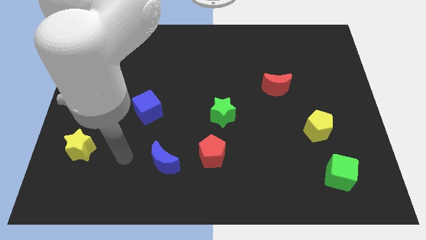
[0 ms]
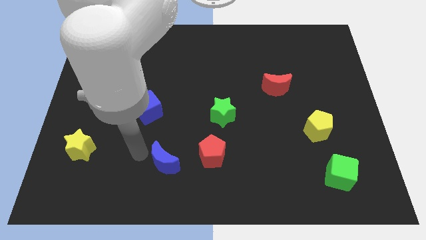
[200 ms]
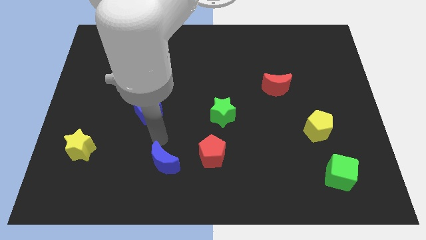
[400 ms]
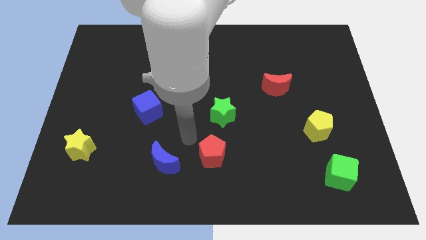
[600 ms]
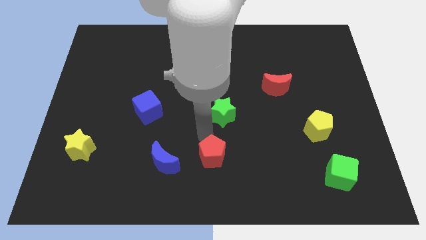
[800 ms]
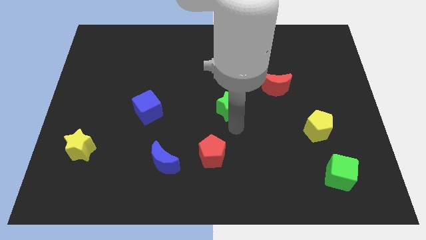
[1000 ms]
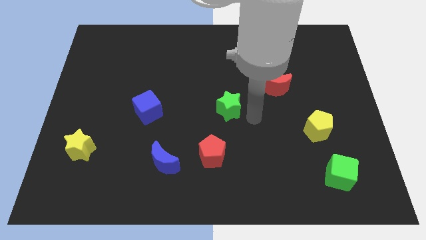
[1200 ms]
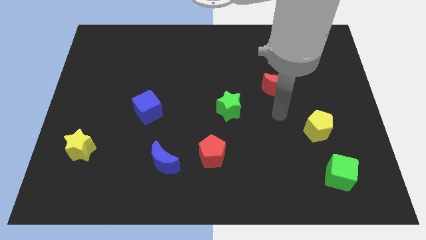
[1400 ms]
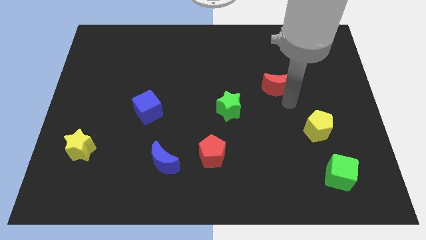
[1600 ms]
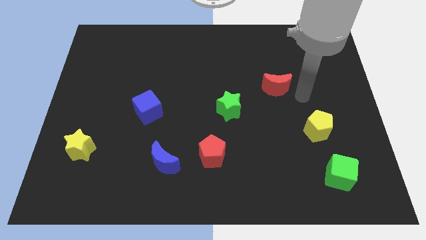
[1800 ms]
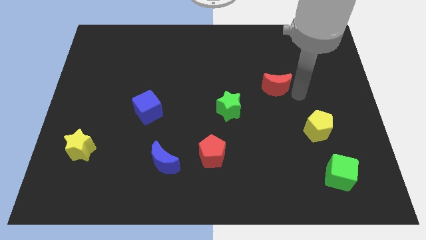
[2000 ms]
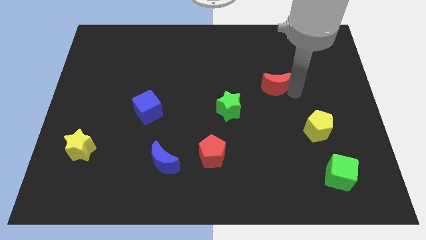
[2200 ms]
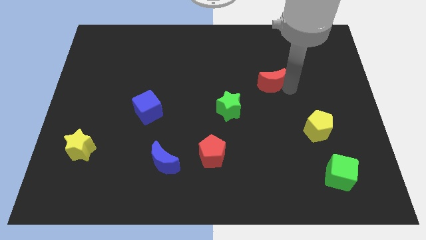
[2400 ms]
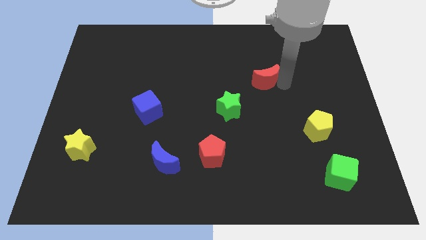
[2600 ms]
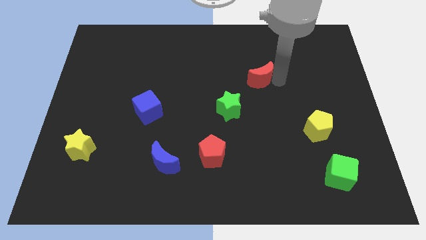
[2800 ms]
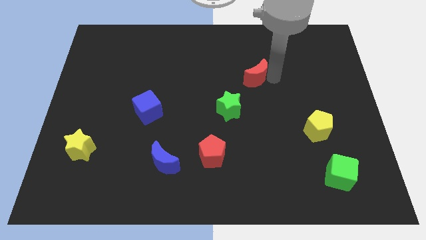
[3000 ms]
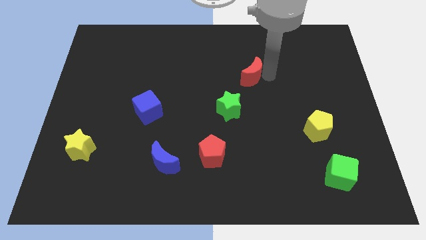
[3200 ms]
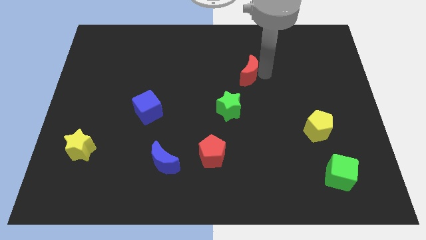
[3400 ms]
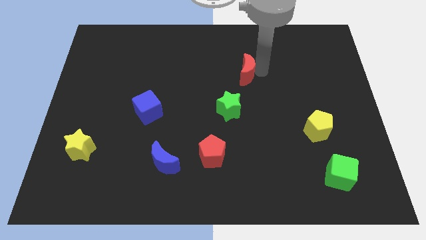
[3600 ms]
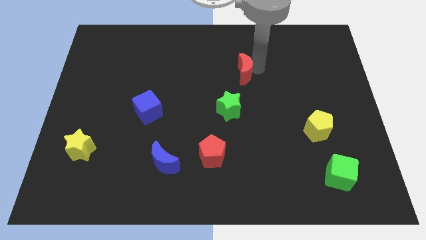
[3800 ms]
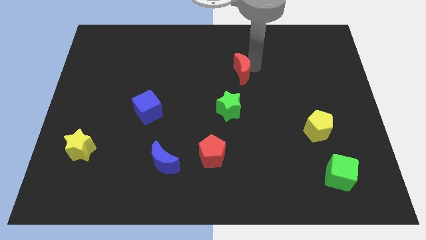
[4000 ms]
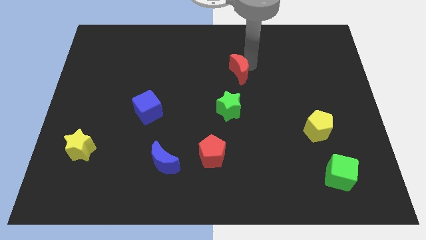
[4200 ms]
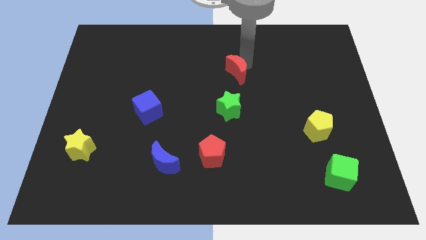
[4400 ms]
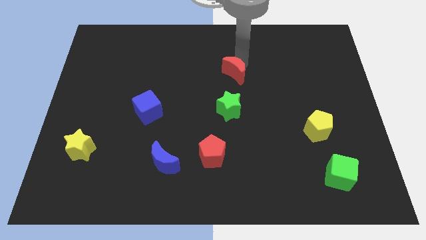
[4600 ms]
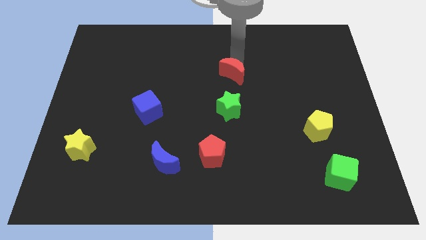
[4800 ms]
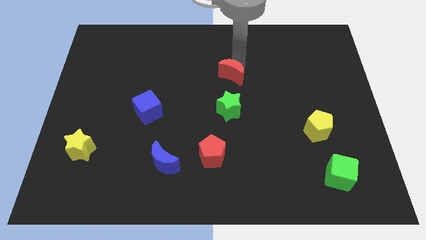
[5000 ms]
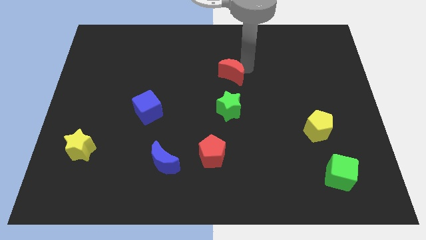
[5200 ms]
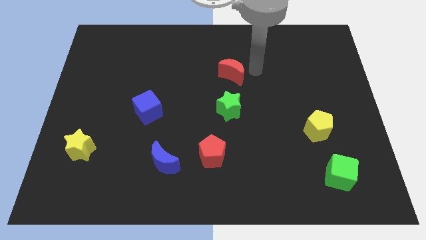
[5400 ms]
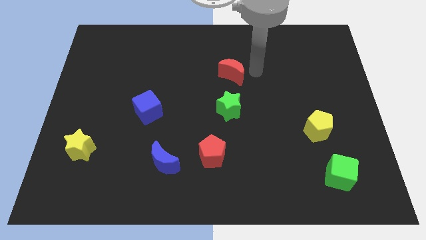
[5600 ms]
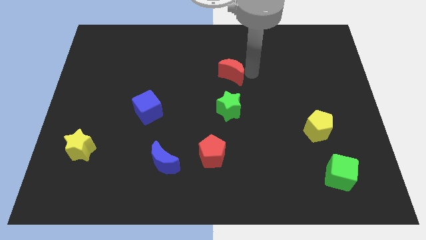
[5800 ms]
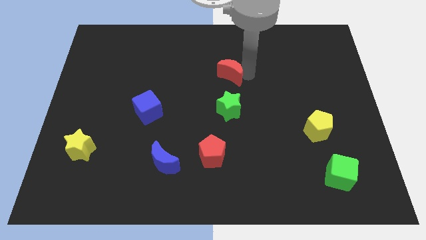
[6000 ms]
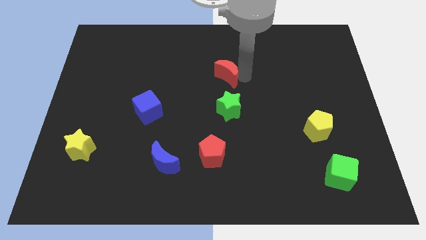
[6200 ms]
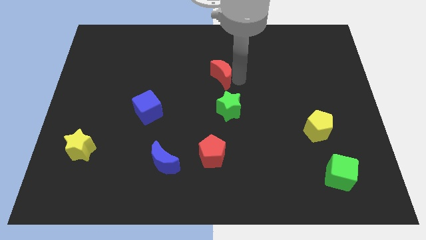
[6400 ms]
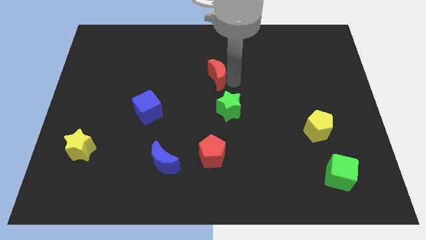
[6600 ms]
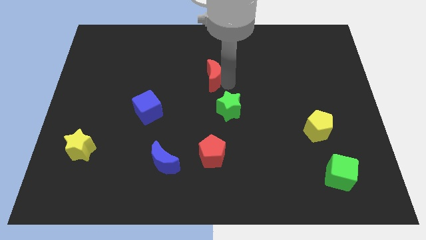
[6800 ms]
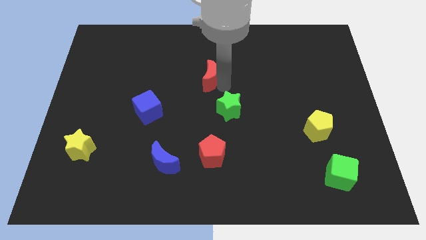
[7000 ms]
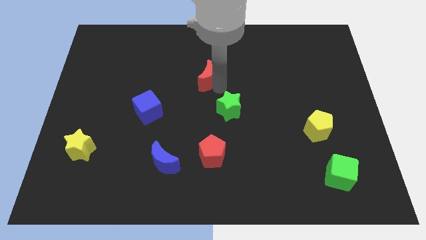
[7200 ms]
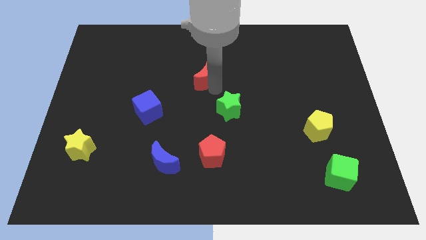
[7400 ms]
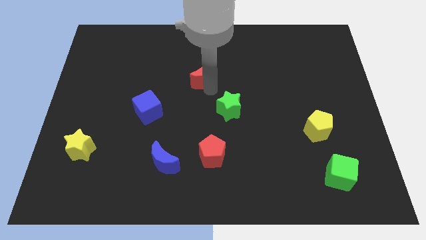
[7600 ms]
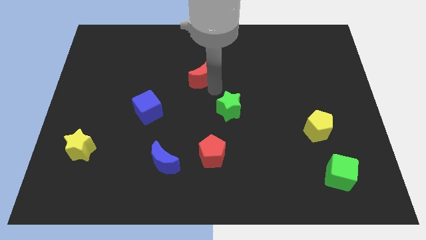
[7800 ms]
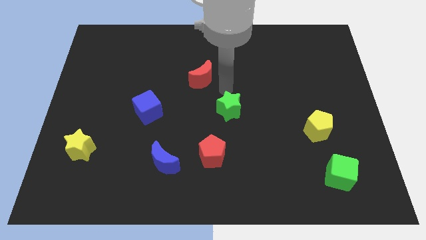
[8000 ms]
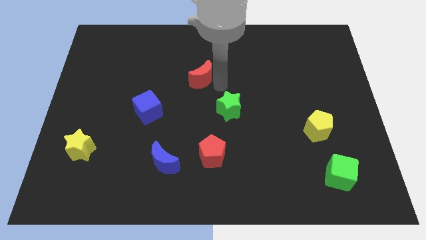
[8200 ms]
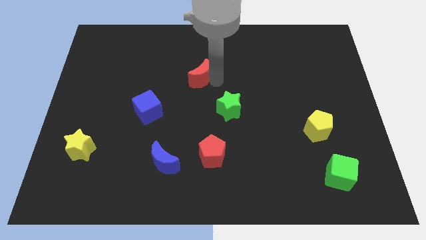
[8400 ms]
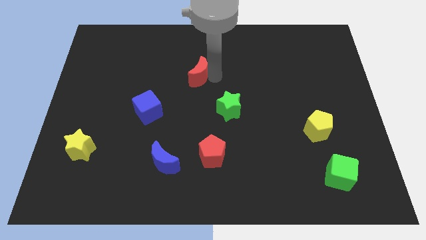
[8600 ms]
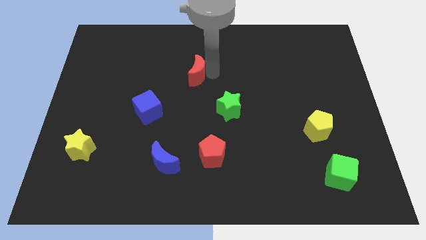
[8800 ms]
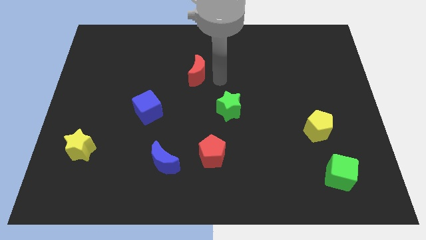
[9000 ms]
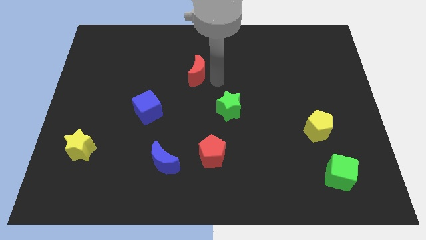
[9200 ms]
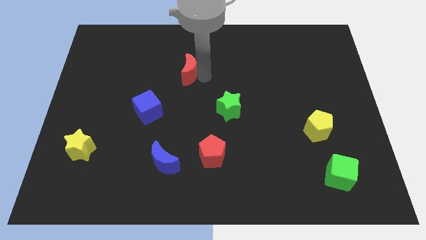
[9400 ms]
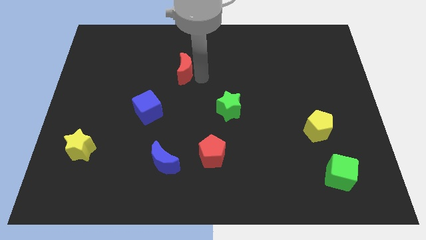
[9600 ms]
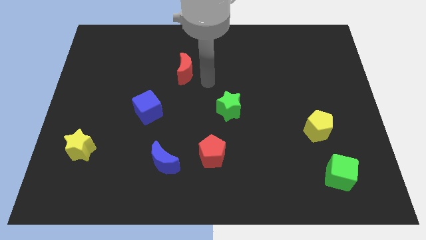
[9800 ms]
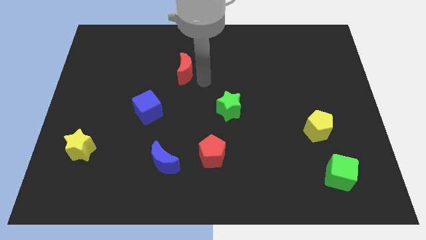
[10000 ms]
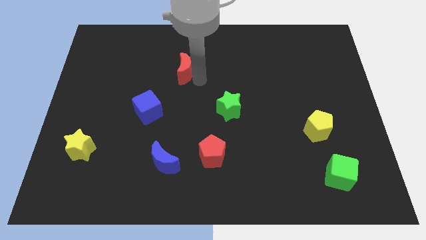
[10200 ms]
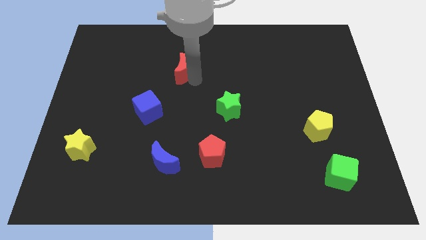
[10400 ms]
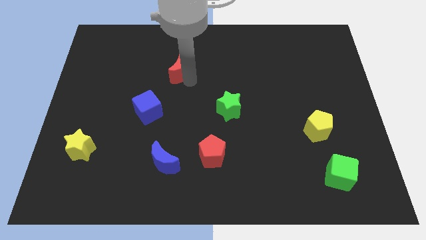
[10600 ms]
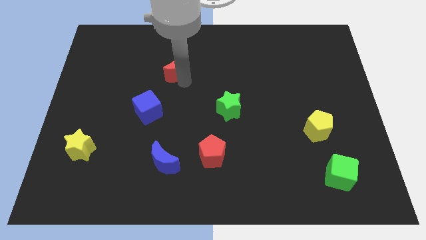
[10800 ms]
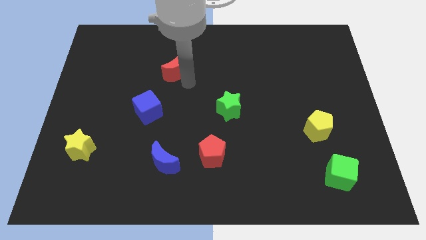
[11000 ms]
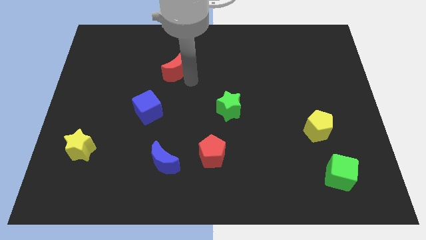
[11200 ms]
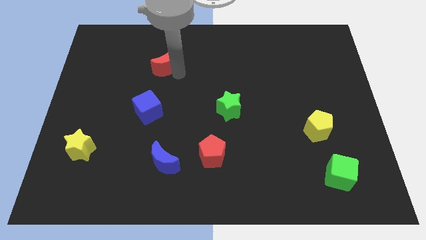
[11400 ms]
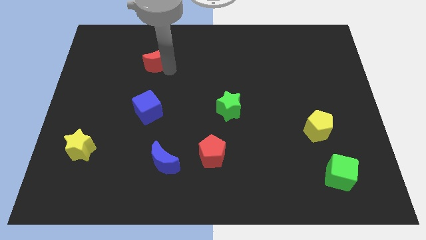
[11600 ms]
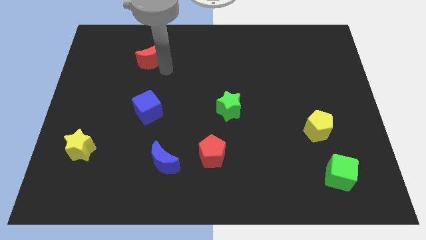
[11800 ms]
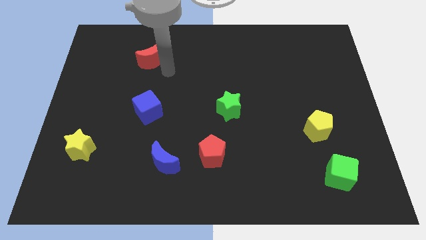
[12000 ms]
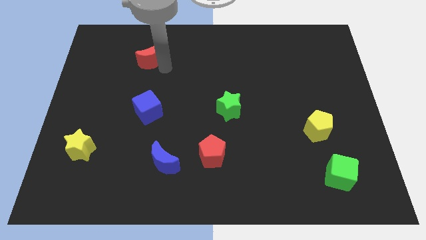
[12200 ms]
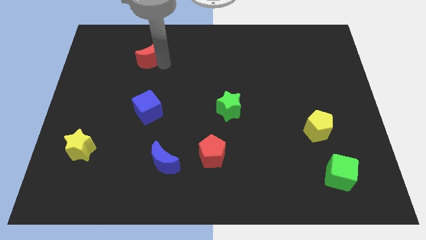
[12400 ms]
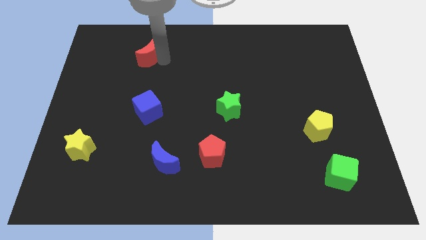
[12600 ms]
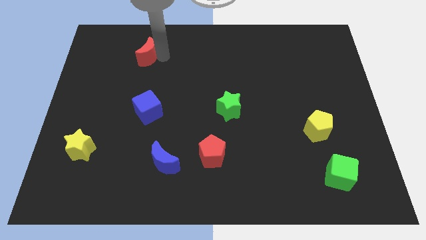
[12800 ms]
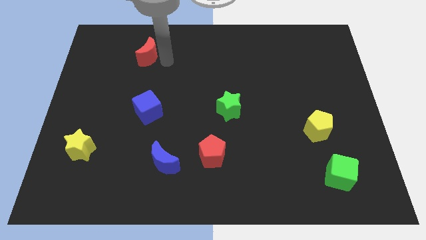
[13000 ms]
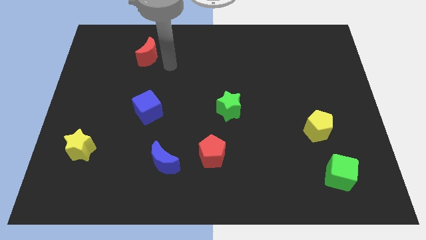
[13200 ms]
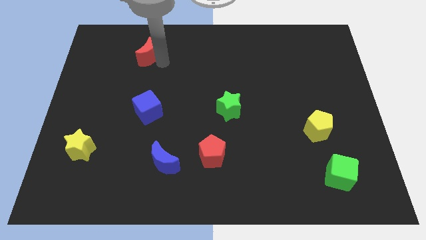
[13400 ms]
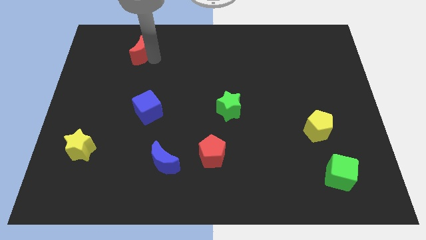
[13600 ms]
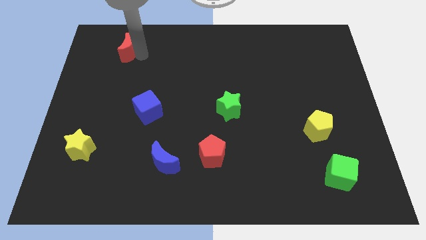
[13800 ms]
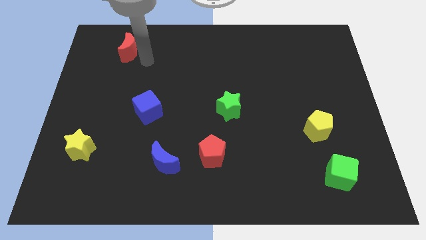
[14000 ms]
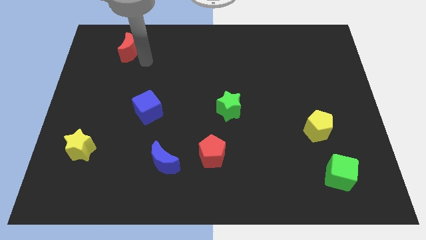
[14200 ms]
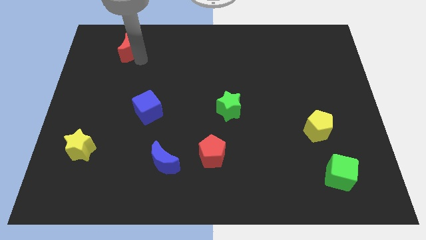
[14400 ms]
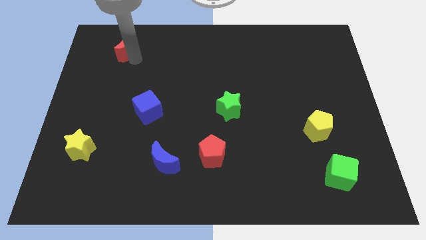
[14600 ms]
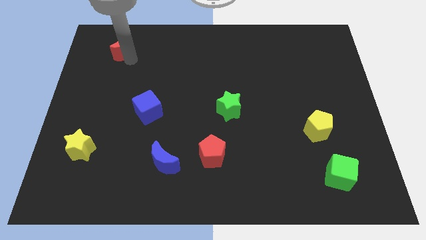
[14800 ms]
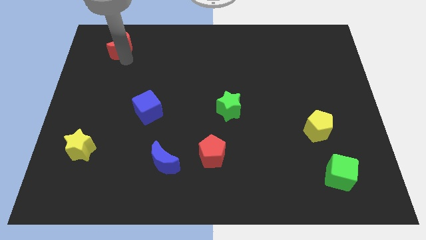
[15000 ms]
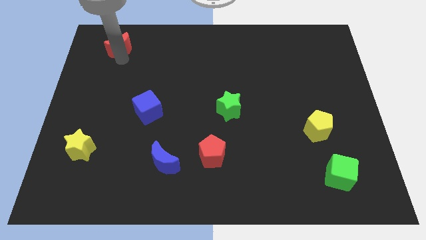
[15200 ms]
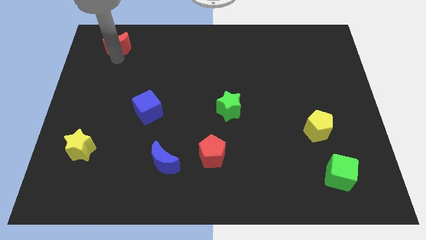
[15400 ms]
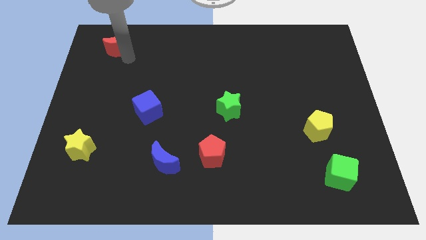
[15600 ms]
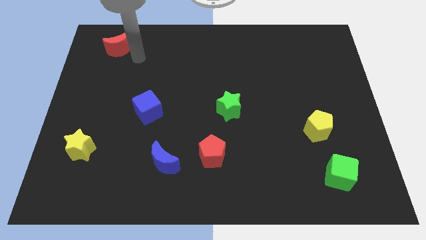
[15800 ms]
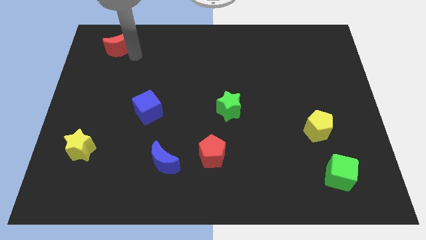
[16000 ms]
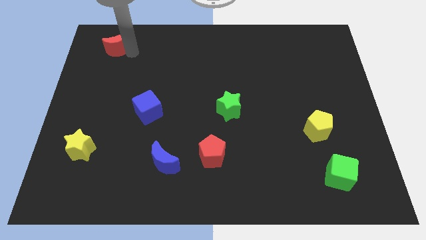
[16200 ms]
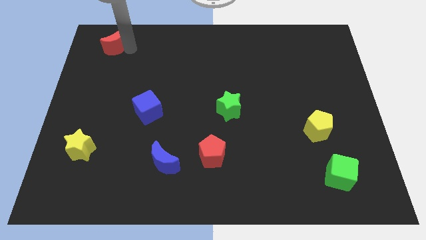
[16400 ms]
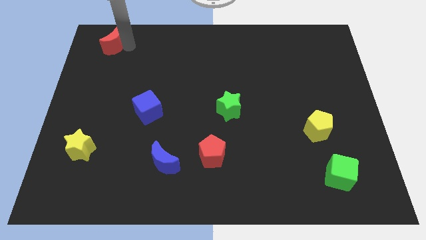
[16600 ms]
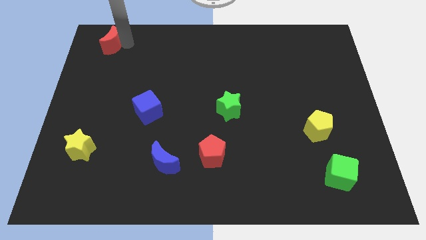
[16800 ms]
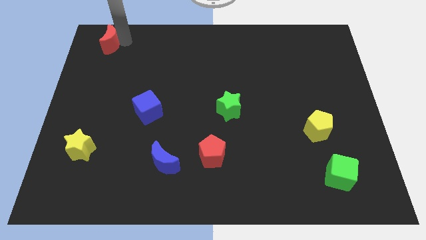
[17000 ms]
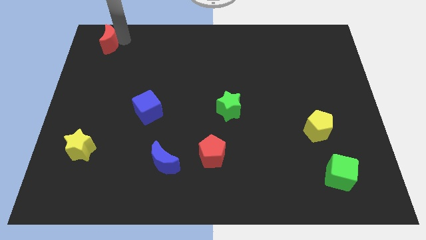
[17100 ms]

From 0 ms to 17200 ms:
push the red moon to the upper left corner
